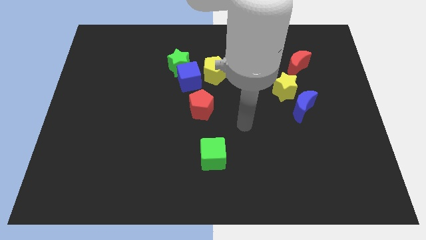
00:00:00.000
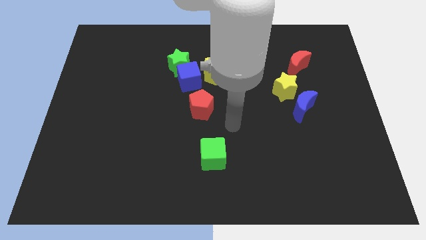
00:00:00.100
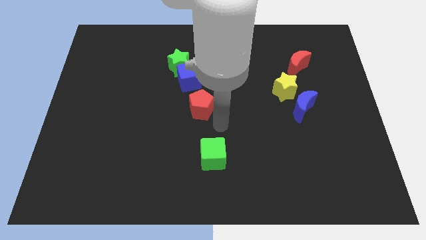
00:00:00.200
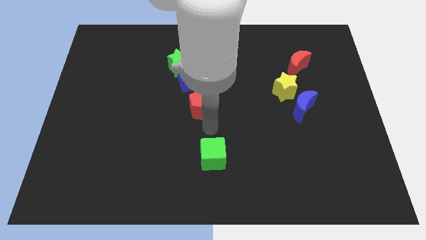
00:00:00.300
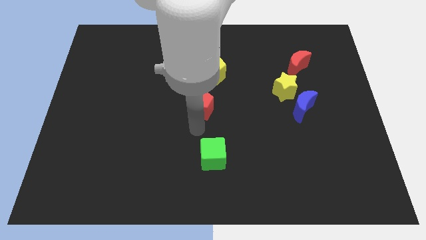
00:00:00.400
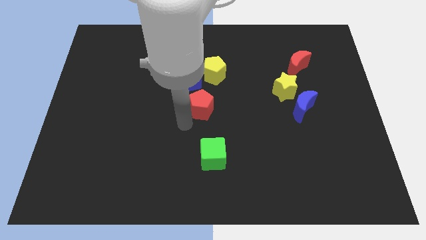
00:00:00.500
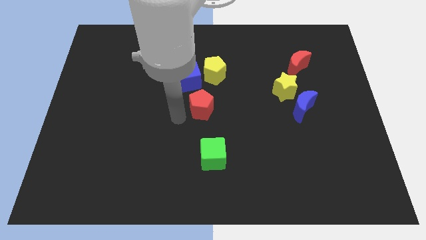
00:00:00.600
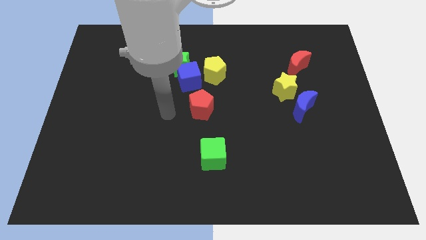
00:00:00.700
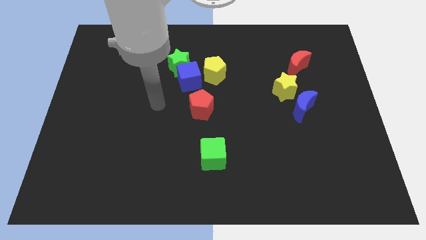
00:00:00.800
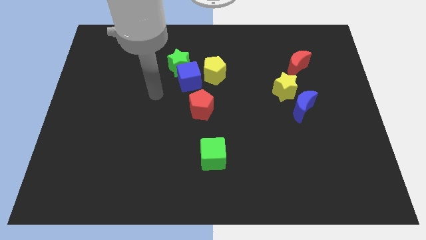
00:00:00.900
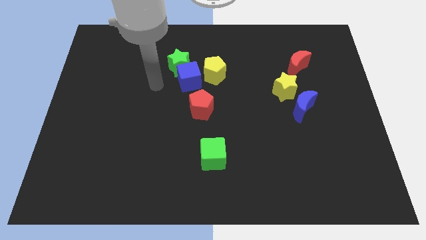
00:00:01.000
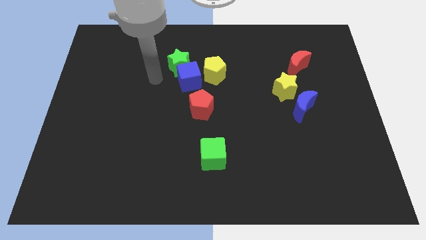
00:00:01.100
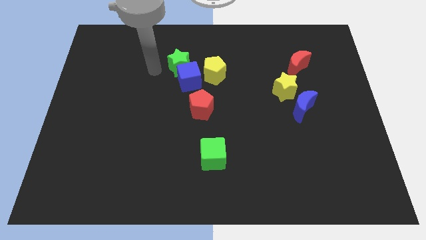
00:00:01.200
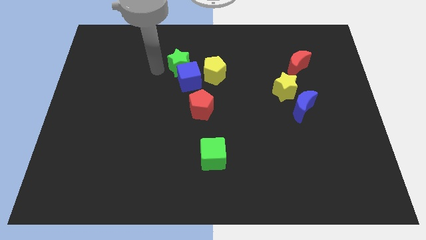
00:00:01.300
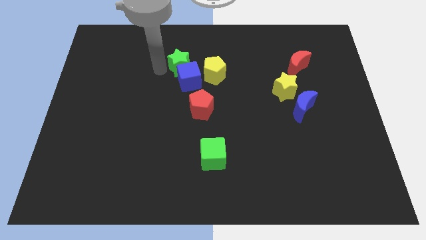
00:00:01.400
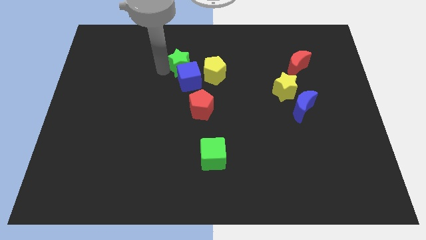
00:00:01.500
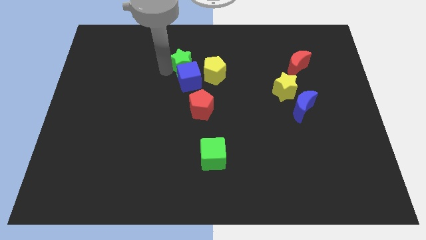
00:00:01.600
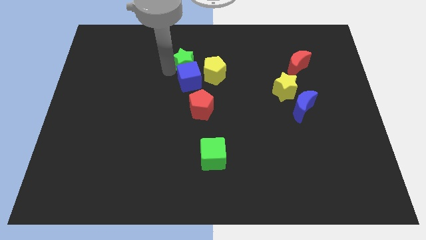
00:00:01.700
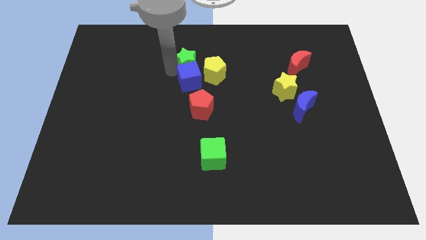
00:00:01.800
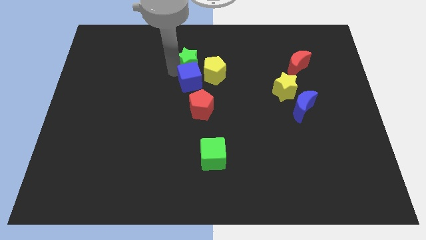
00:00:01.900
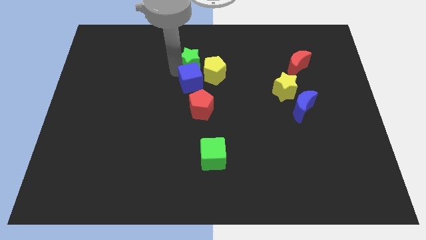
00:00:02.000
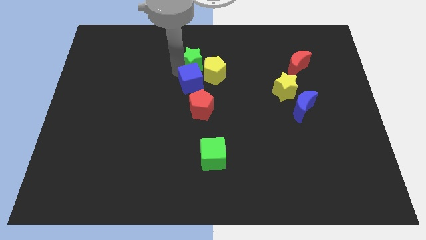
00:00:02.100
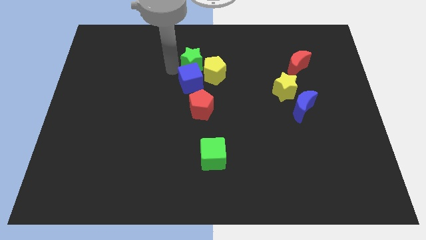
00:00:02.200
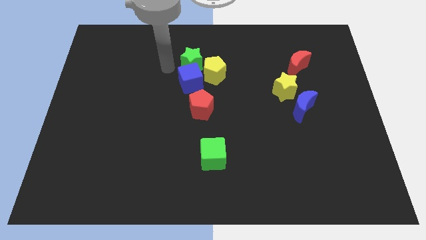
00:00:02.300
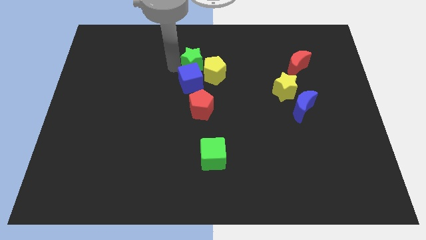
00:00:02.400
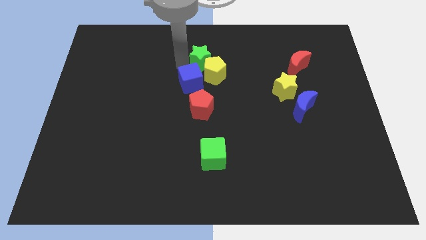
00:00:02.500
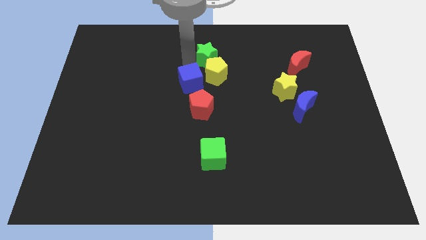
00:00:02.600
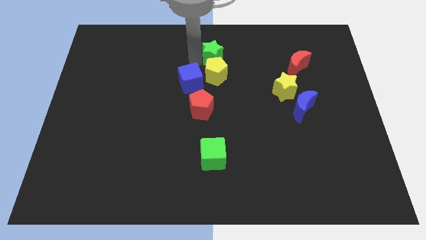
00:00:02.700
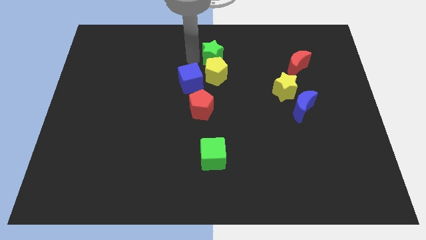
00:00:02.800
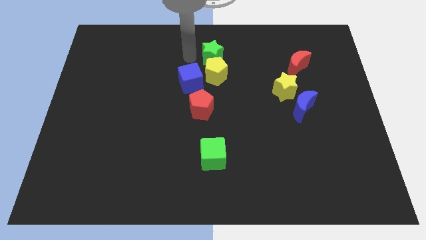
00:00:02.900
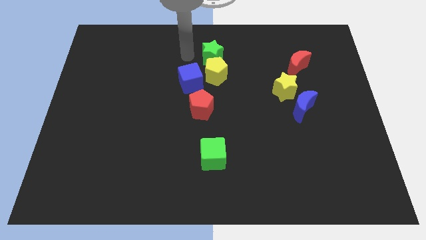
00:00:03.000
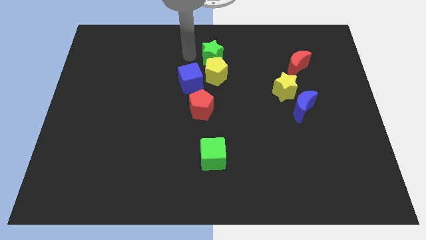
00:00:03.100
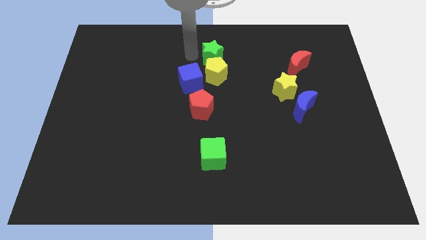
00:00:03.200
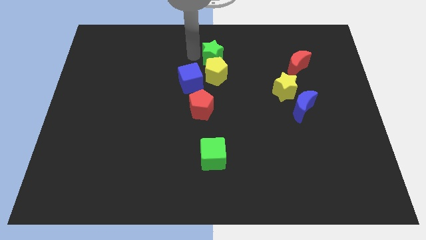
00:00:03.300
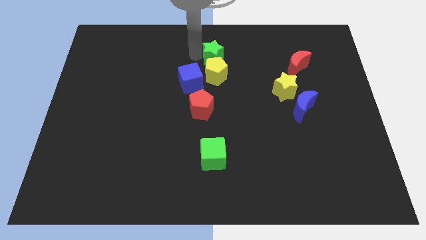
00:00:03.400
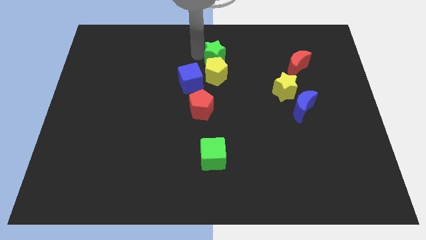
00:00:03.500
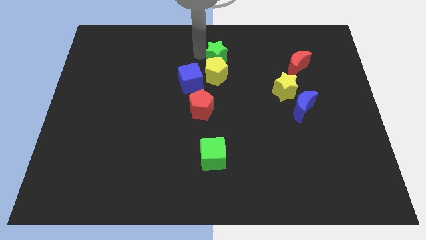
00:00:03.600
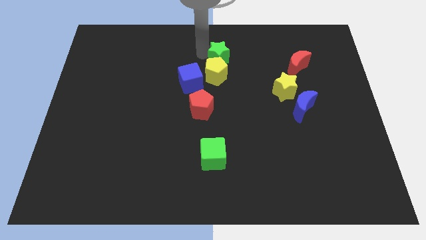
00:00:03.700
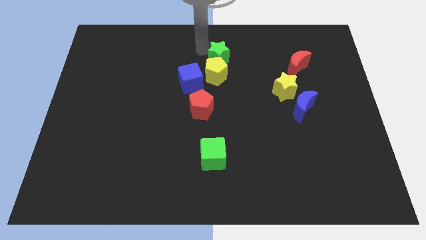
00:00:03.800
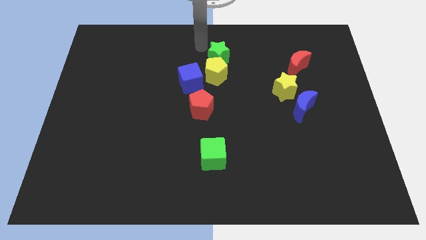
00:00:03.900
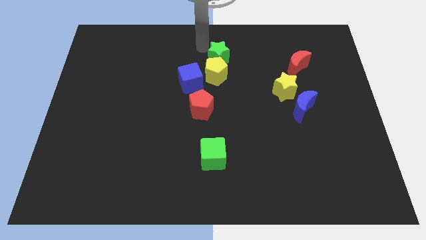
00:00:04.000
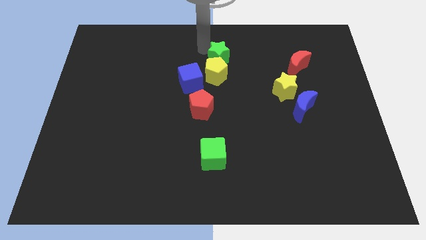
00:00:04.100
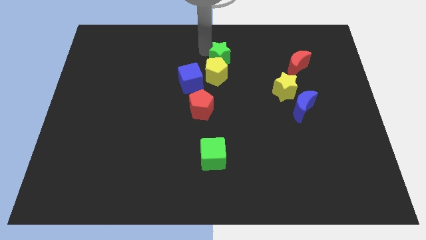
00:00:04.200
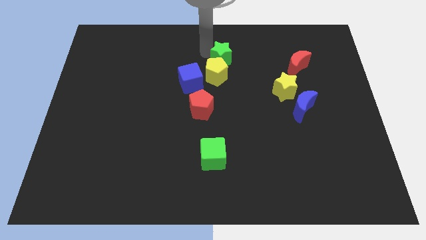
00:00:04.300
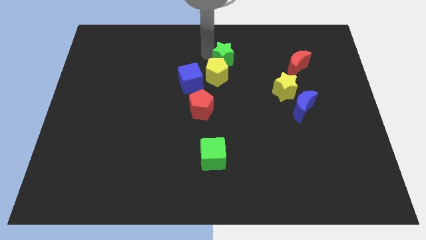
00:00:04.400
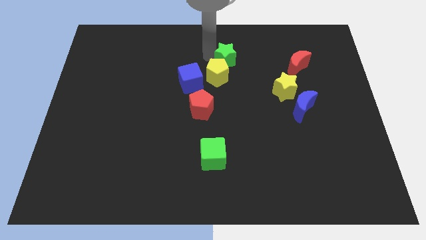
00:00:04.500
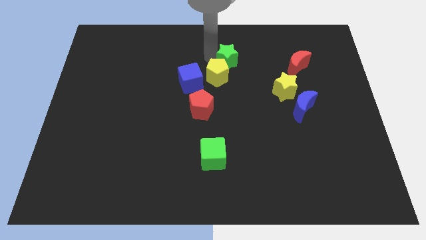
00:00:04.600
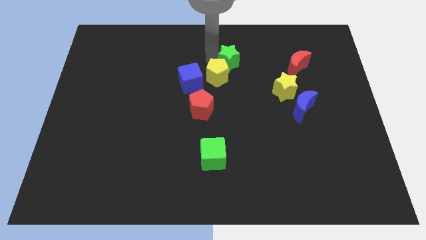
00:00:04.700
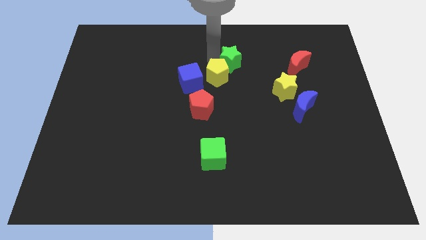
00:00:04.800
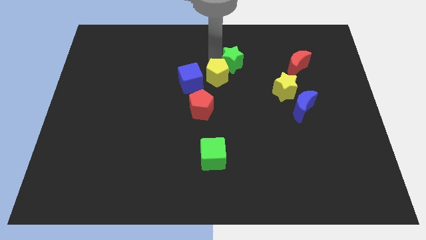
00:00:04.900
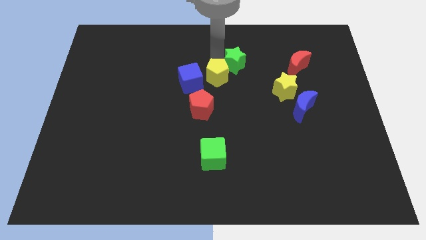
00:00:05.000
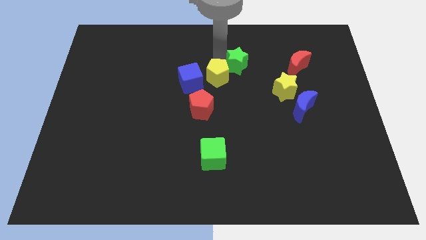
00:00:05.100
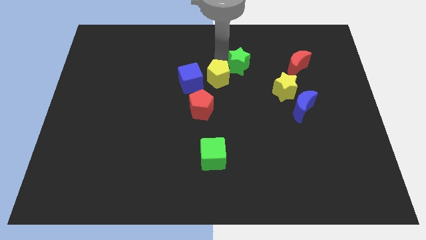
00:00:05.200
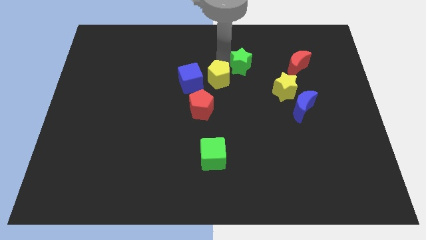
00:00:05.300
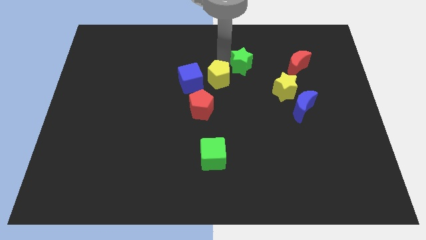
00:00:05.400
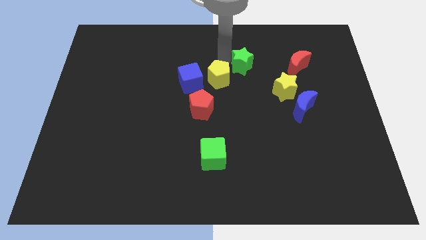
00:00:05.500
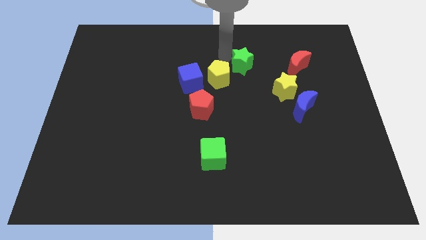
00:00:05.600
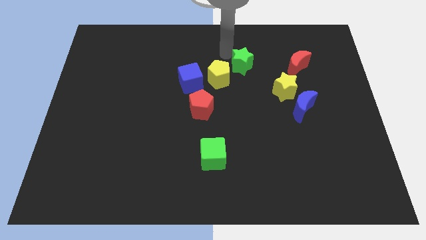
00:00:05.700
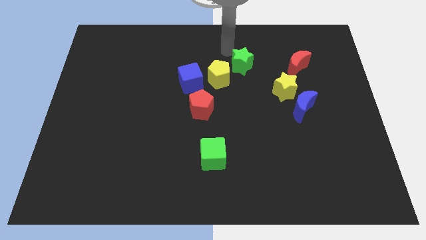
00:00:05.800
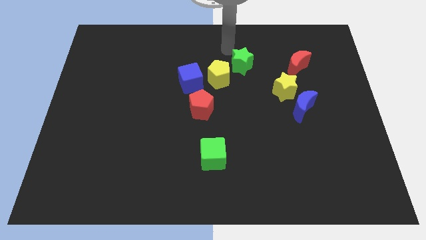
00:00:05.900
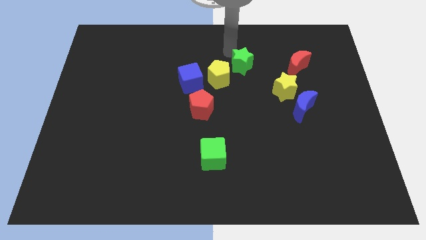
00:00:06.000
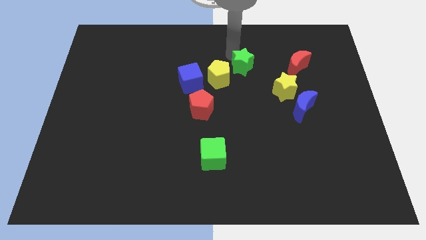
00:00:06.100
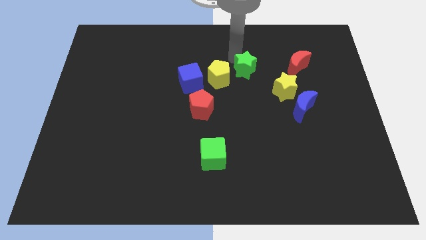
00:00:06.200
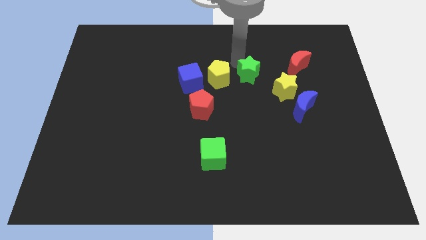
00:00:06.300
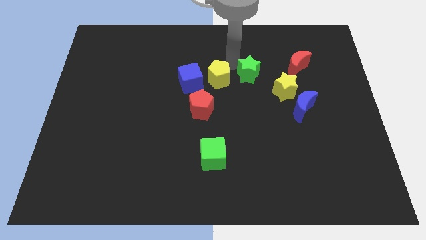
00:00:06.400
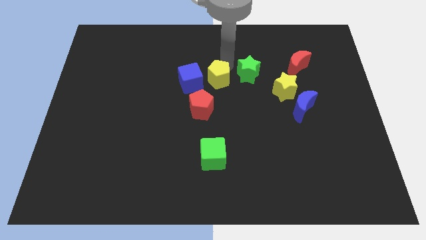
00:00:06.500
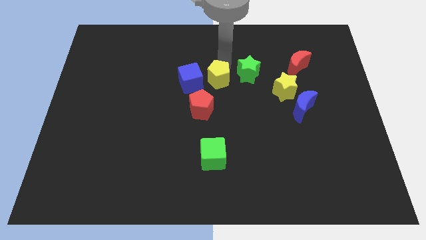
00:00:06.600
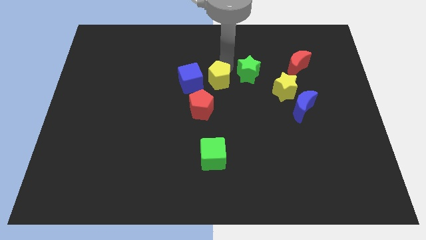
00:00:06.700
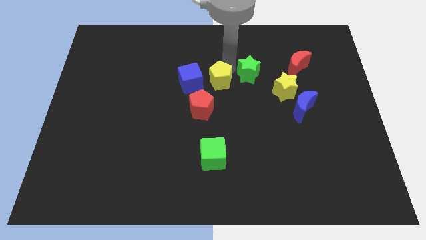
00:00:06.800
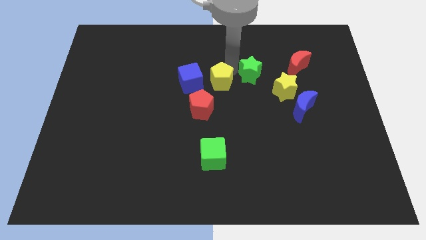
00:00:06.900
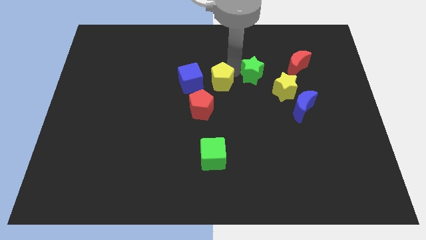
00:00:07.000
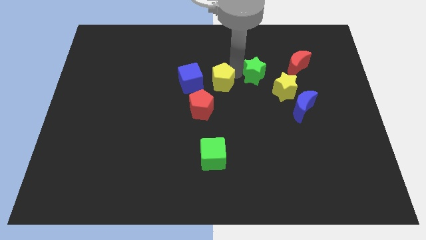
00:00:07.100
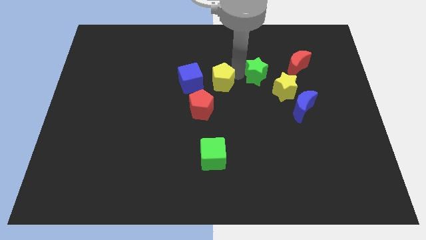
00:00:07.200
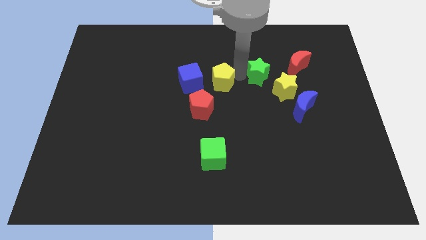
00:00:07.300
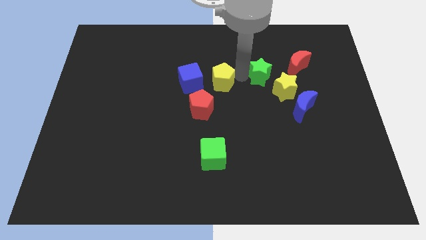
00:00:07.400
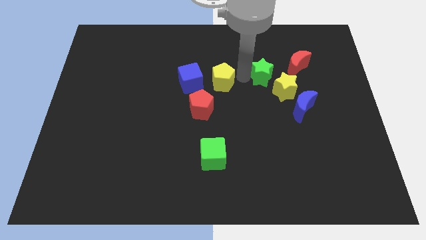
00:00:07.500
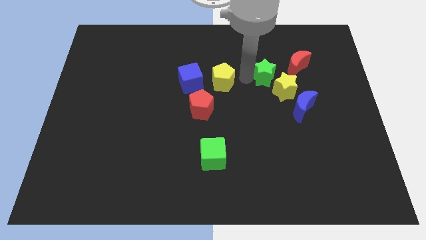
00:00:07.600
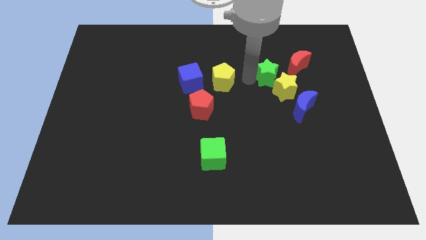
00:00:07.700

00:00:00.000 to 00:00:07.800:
move the green star to the yellow star
